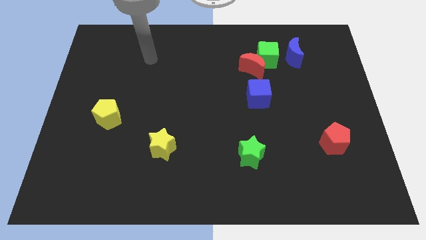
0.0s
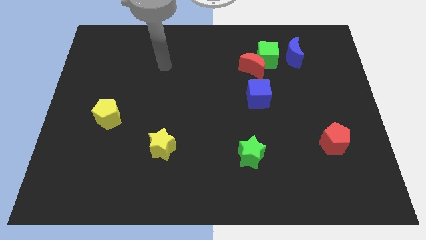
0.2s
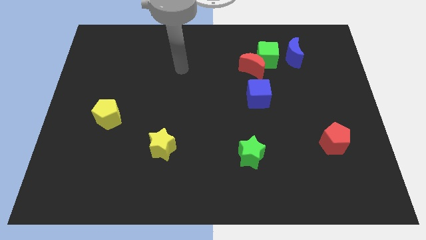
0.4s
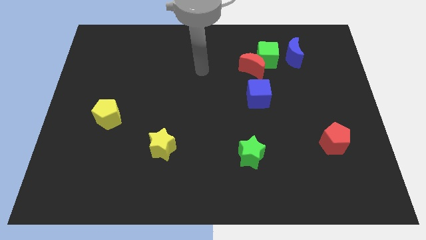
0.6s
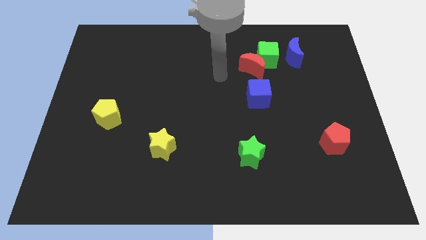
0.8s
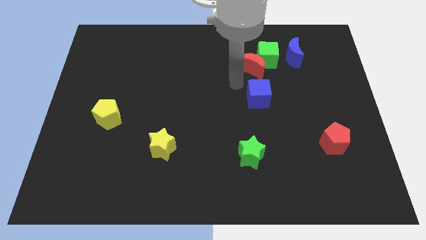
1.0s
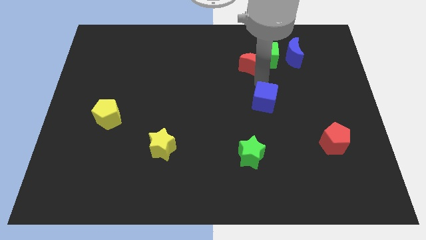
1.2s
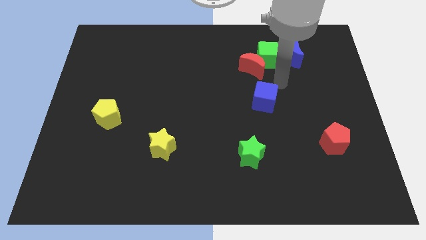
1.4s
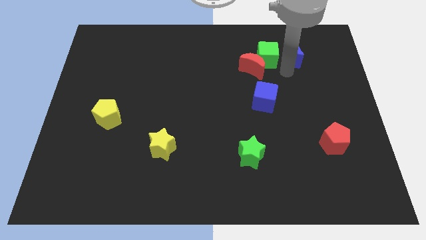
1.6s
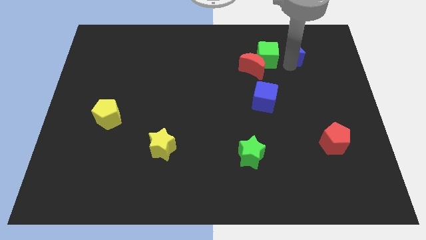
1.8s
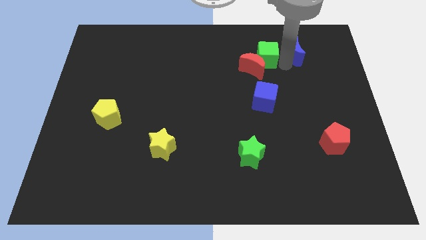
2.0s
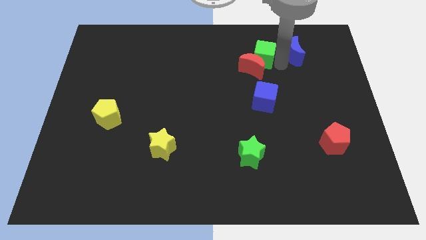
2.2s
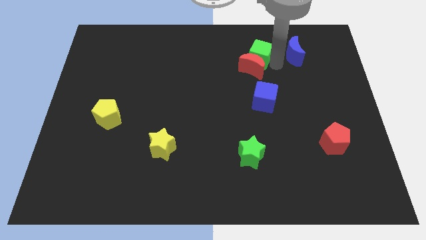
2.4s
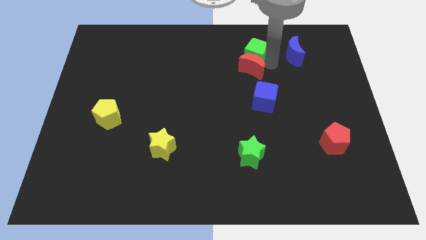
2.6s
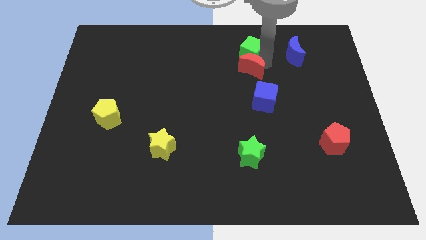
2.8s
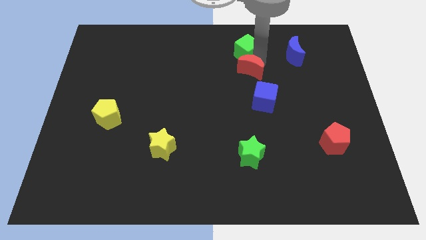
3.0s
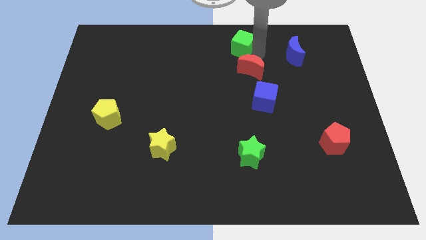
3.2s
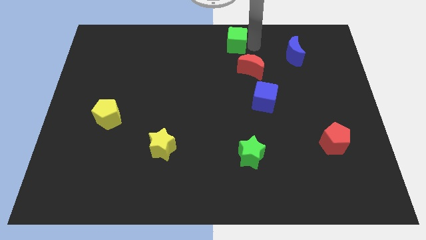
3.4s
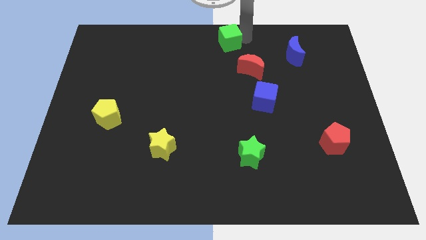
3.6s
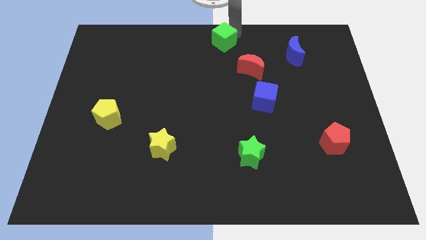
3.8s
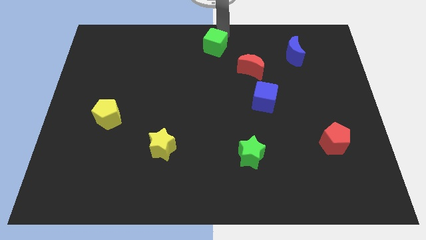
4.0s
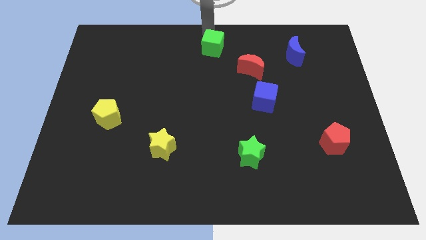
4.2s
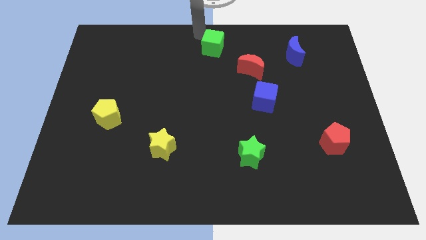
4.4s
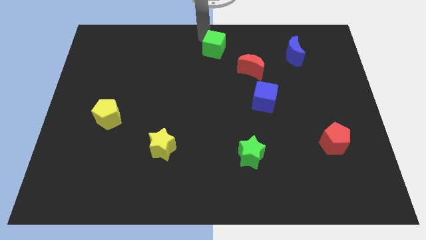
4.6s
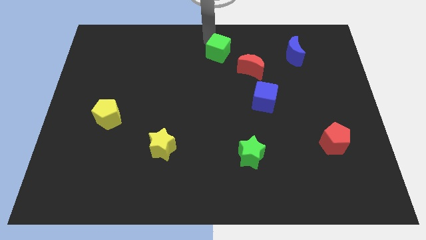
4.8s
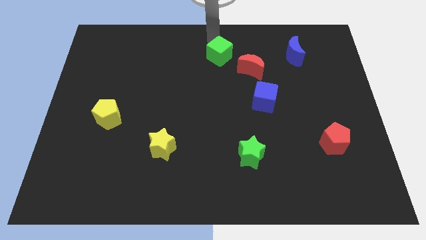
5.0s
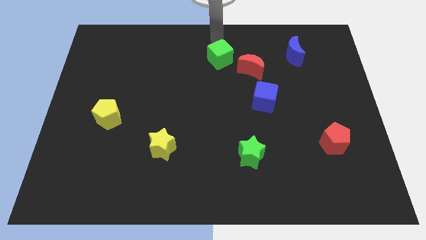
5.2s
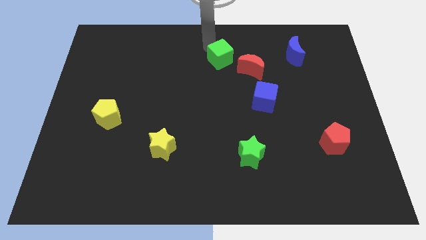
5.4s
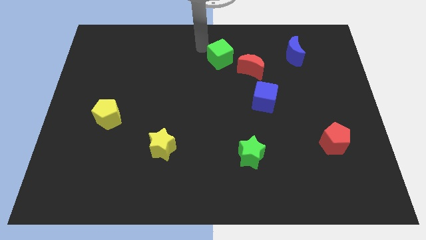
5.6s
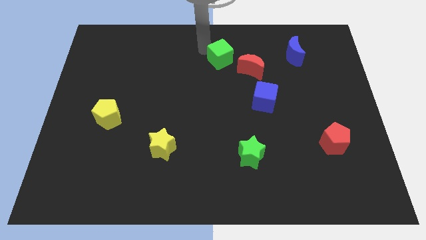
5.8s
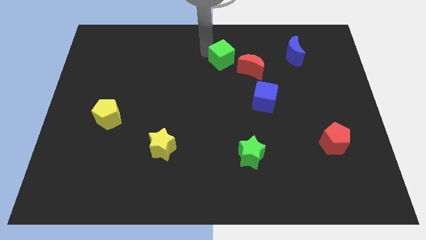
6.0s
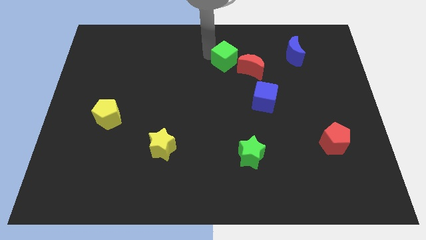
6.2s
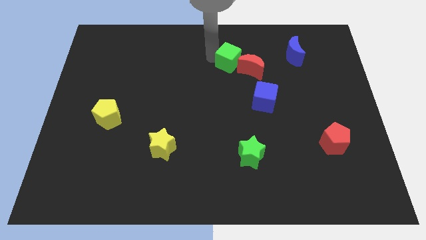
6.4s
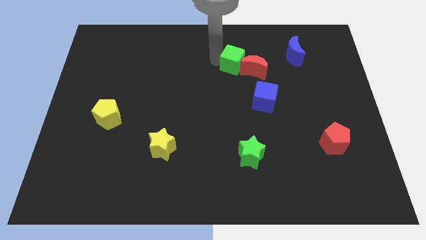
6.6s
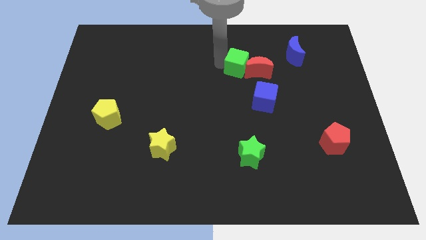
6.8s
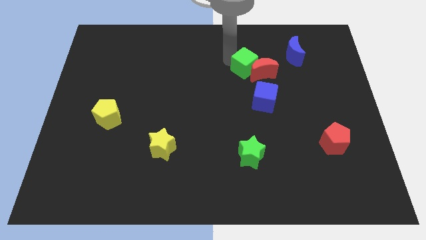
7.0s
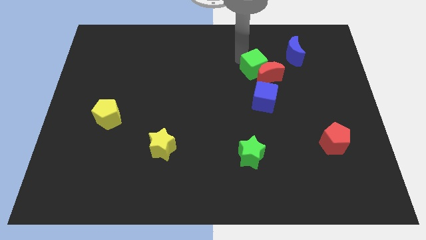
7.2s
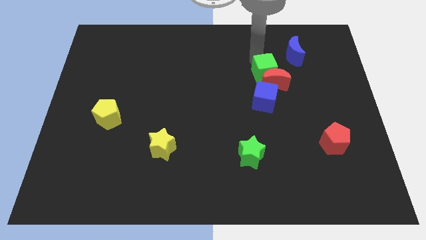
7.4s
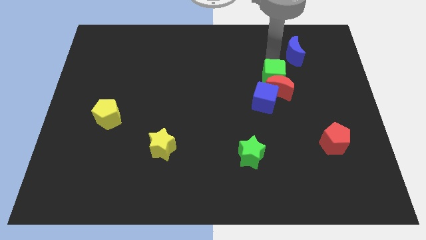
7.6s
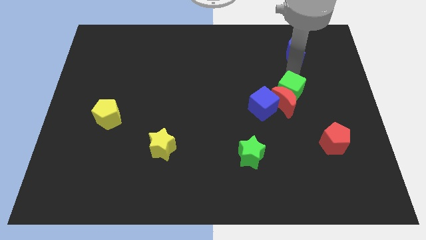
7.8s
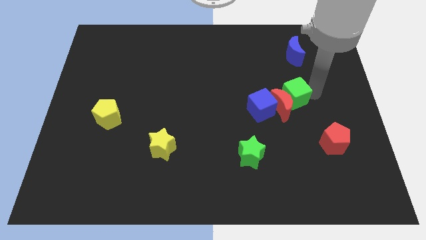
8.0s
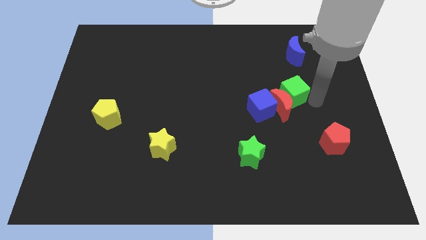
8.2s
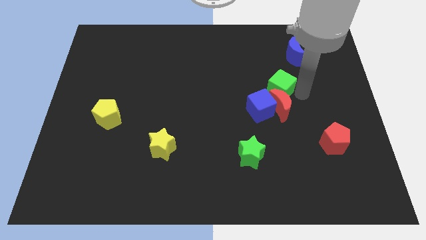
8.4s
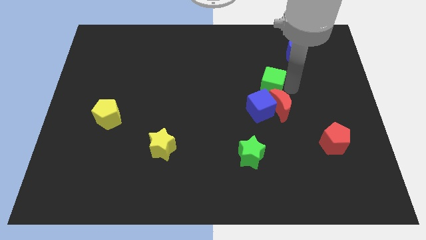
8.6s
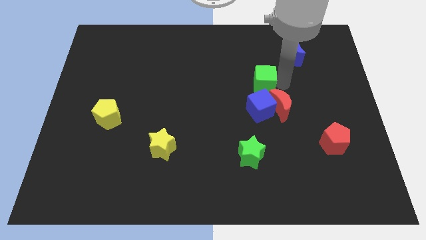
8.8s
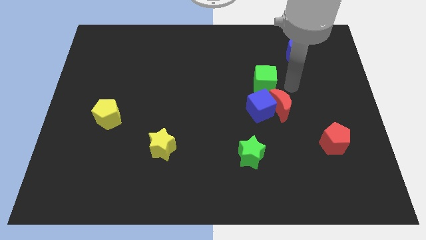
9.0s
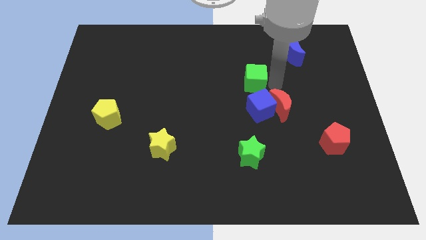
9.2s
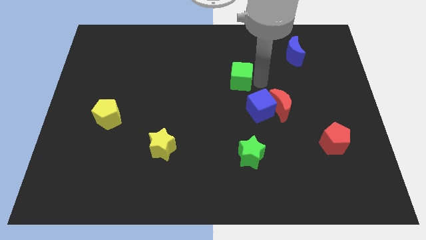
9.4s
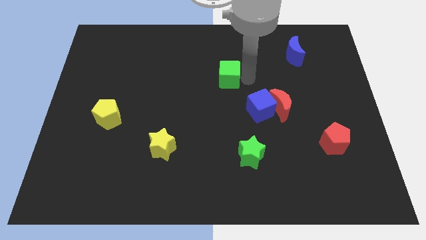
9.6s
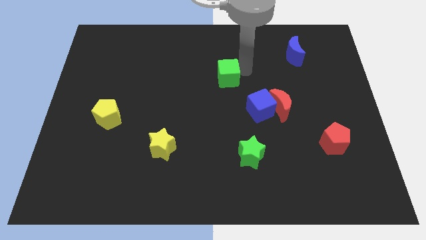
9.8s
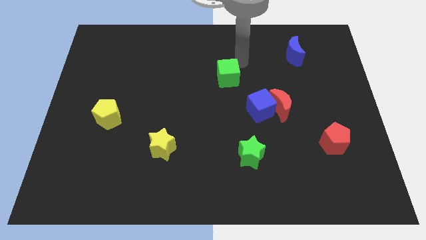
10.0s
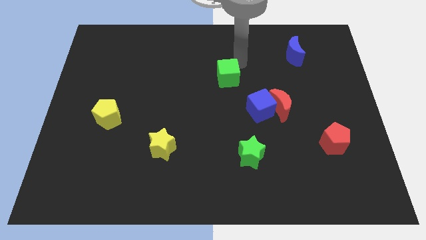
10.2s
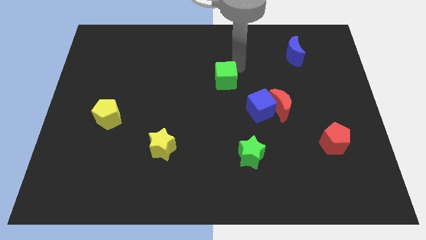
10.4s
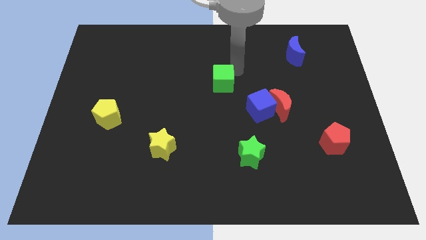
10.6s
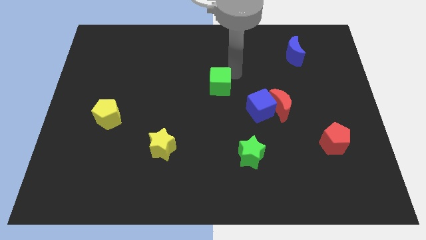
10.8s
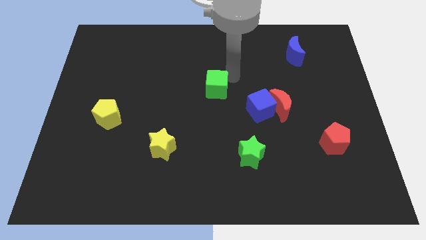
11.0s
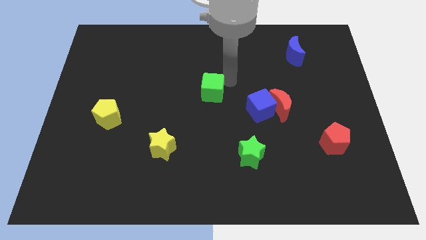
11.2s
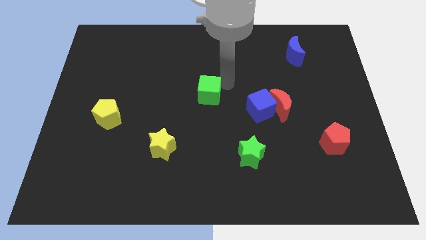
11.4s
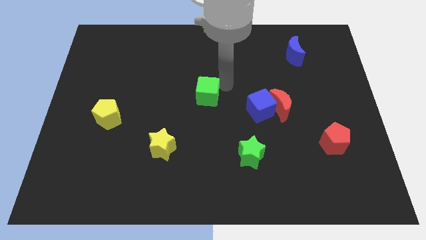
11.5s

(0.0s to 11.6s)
move the green cube downwards and to the left diagonally

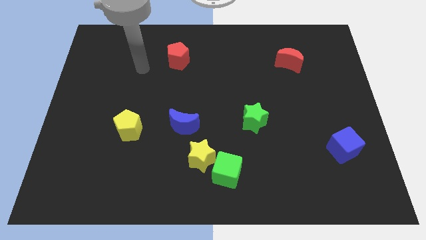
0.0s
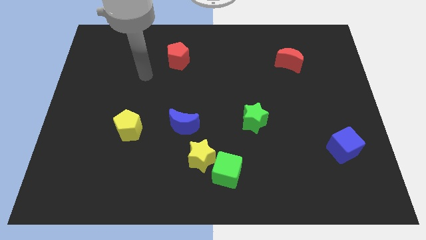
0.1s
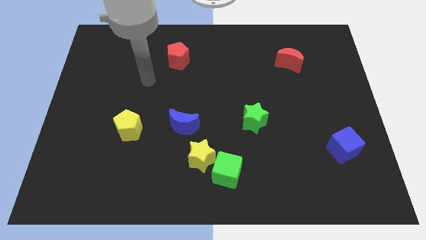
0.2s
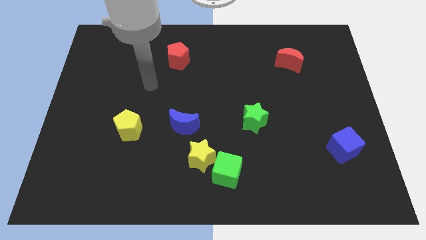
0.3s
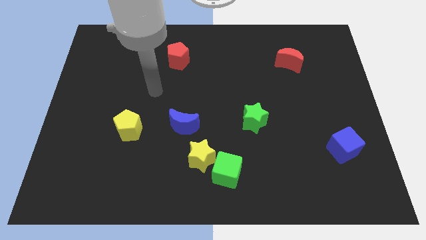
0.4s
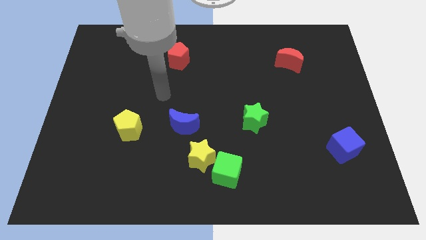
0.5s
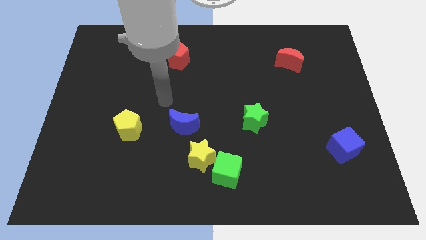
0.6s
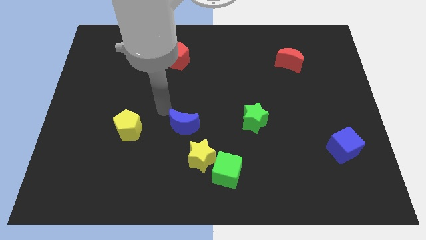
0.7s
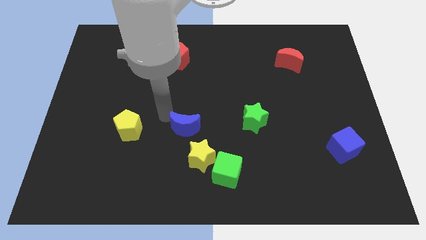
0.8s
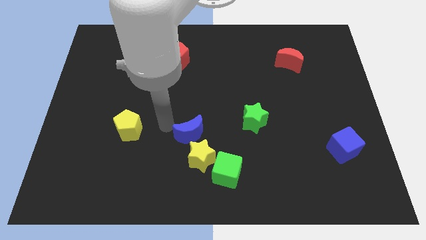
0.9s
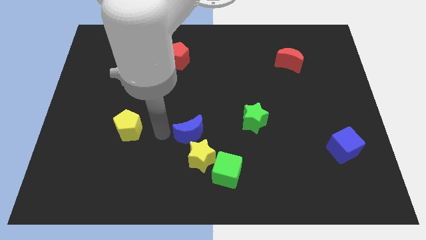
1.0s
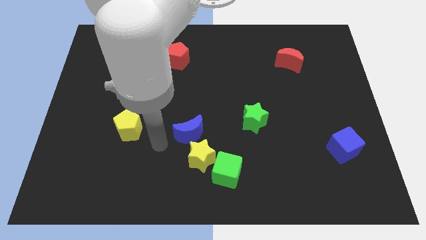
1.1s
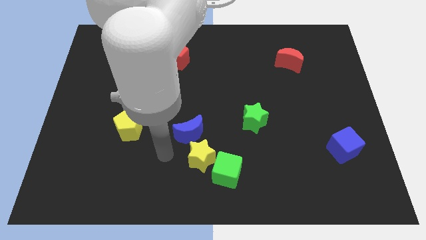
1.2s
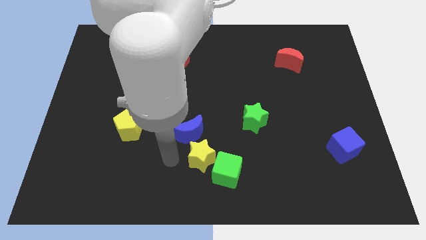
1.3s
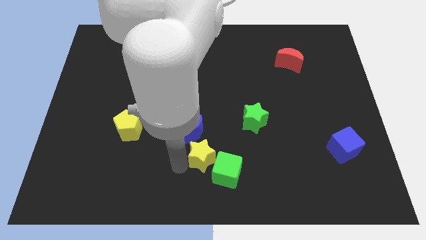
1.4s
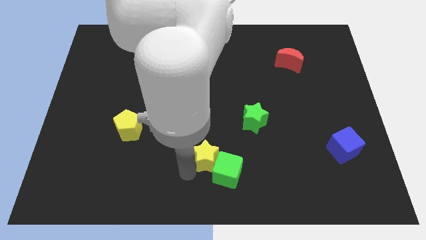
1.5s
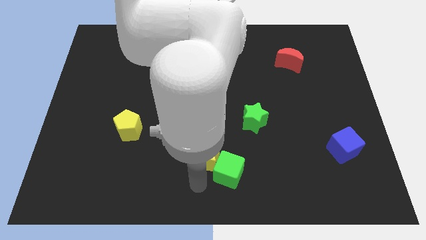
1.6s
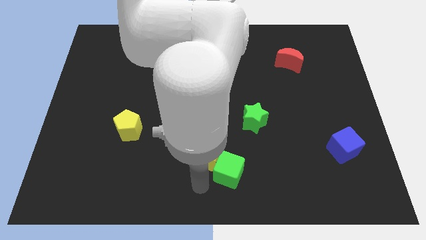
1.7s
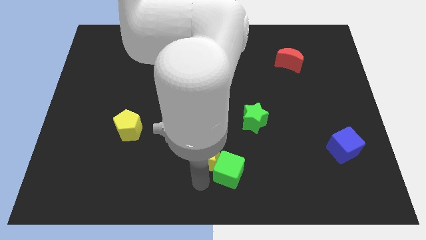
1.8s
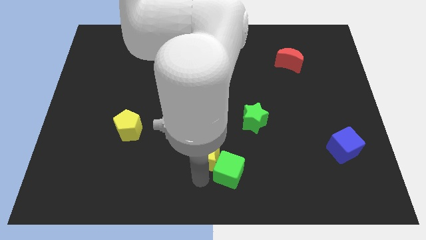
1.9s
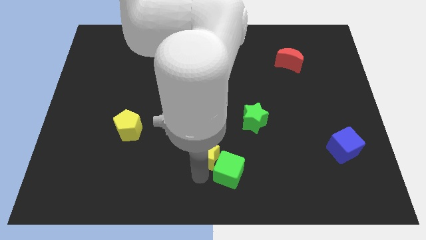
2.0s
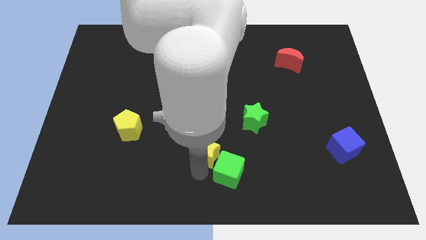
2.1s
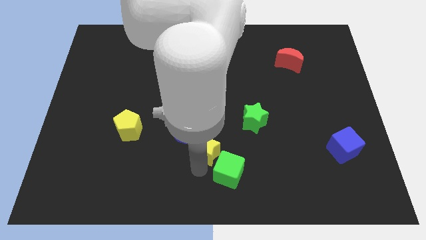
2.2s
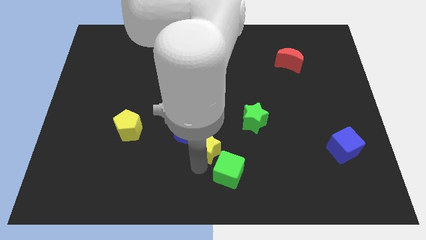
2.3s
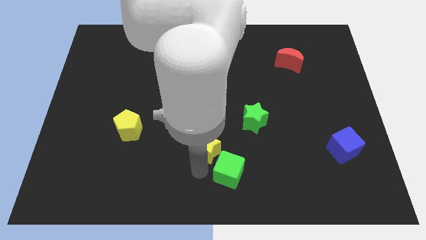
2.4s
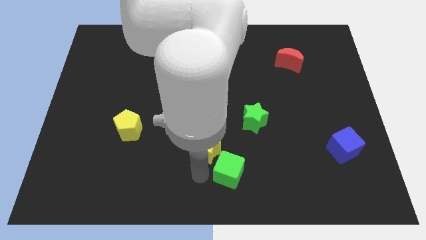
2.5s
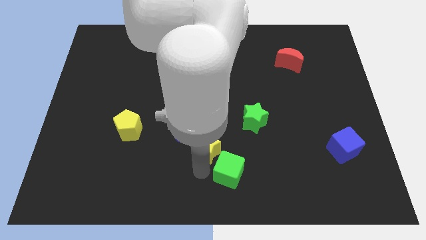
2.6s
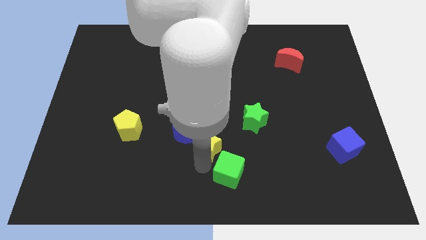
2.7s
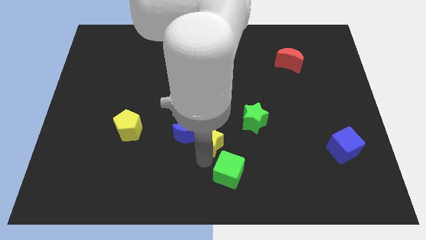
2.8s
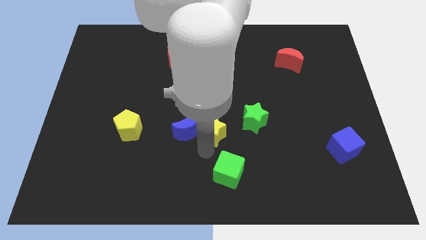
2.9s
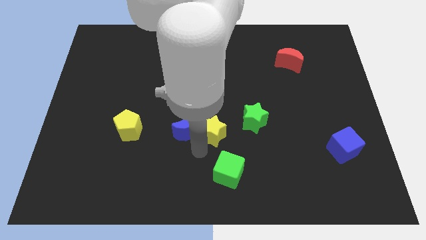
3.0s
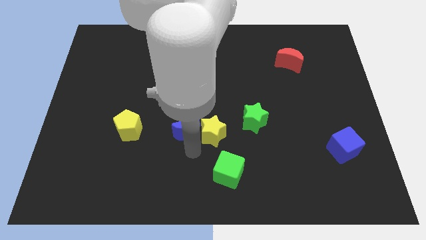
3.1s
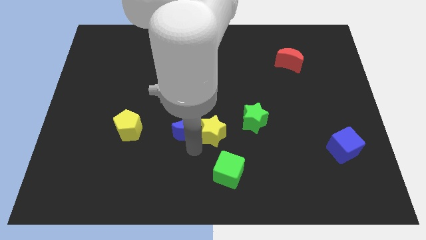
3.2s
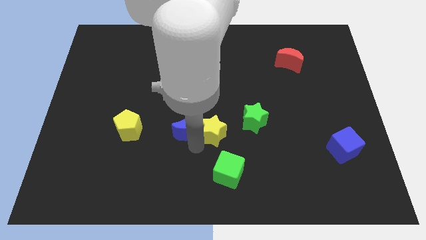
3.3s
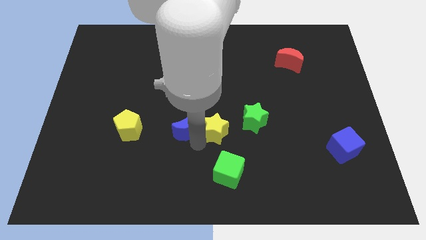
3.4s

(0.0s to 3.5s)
move the yellow star diagonally upwards and to the right a bit
